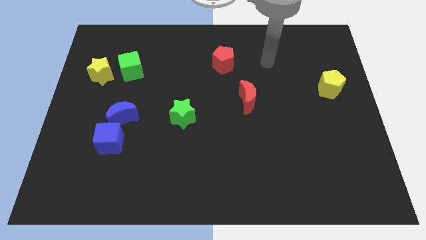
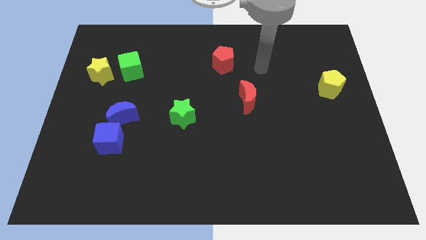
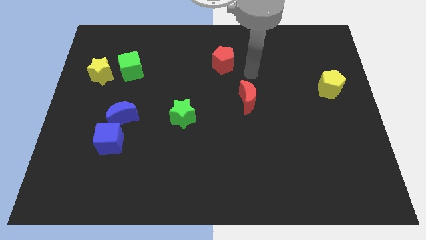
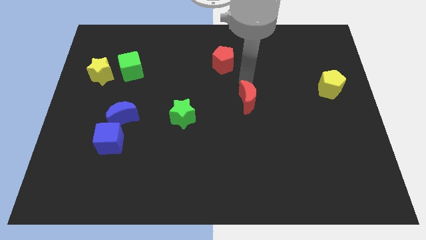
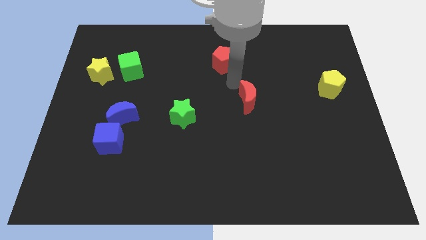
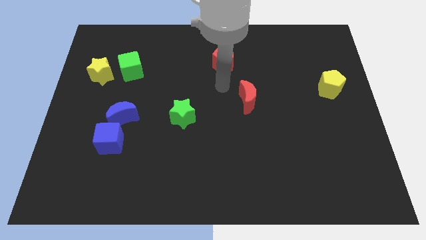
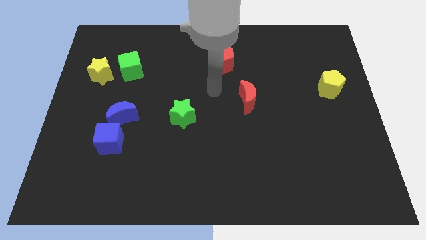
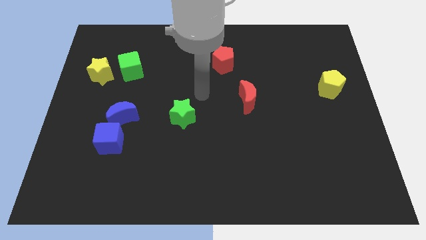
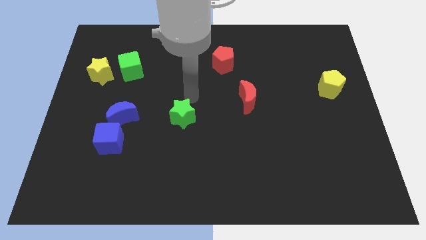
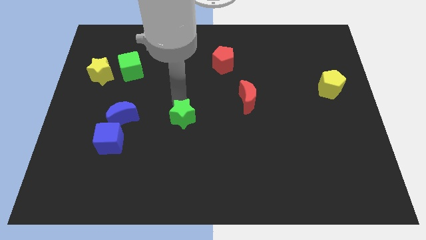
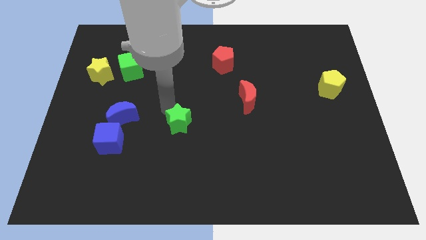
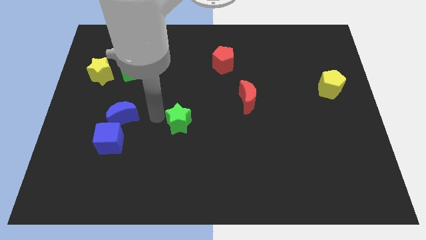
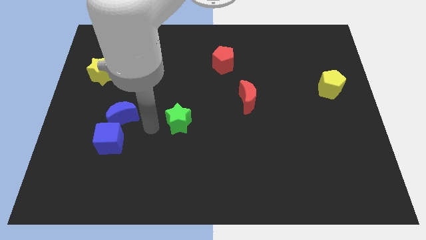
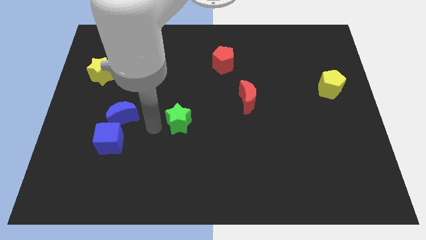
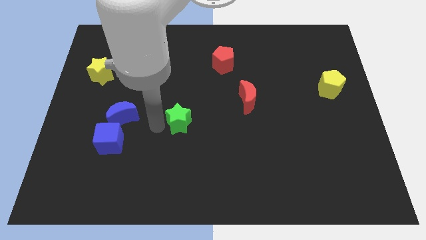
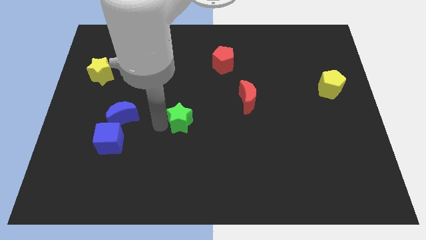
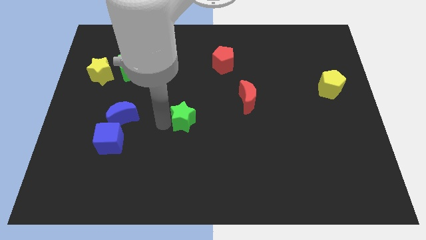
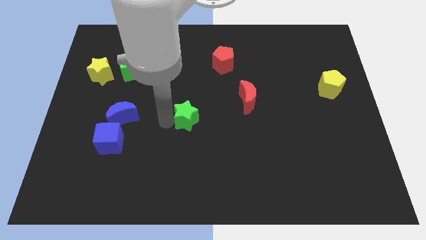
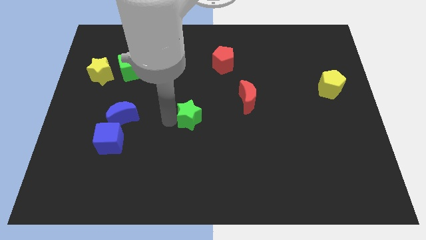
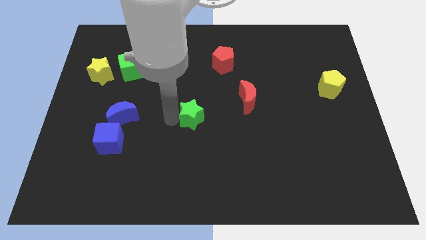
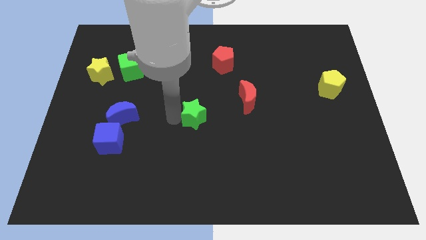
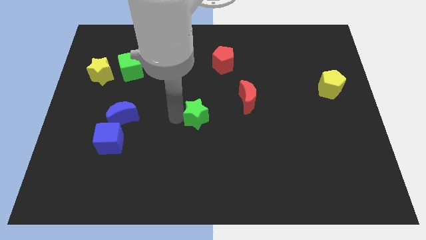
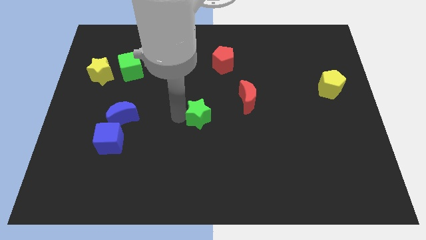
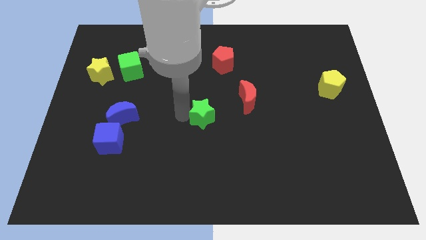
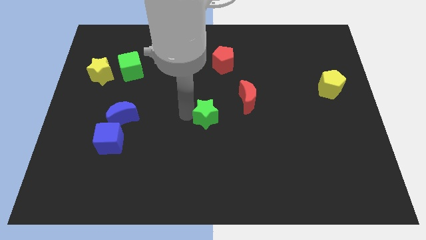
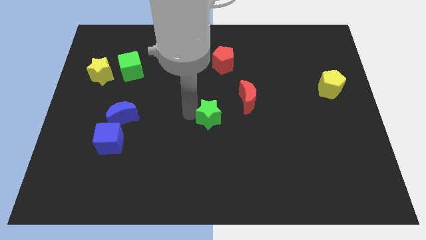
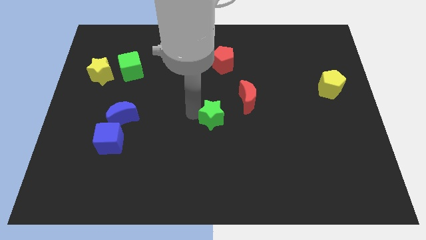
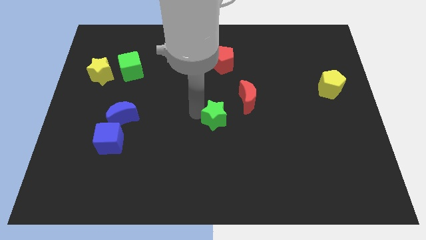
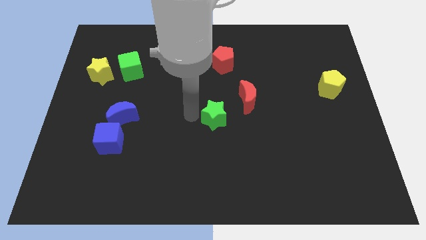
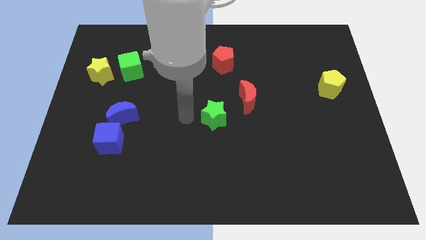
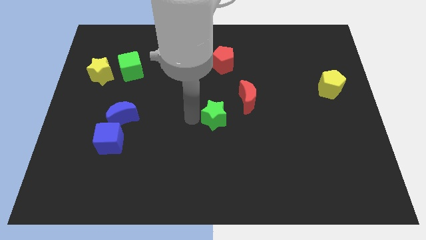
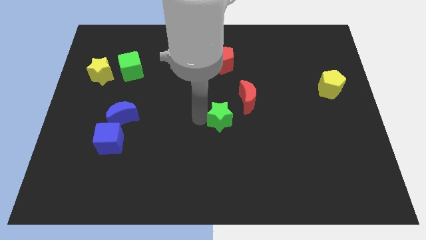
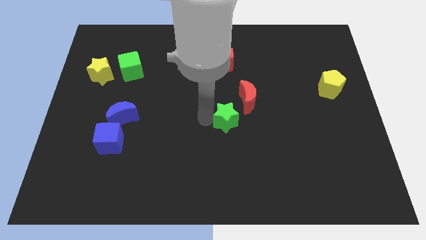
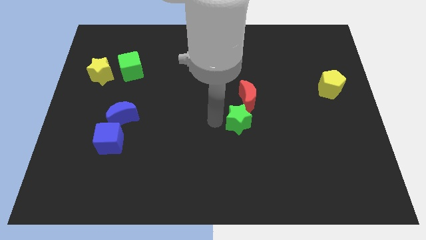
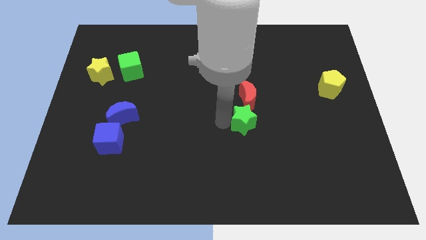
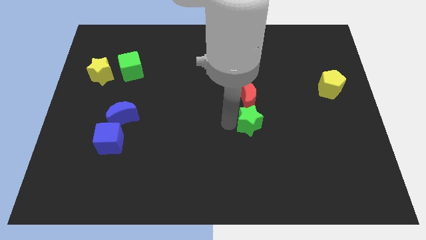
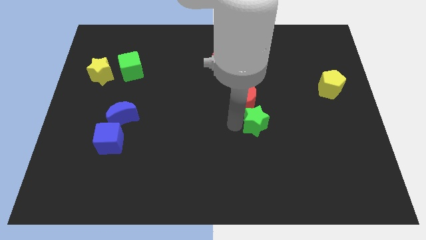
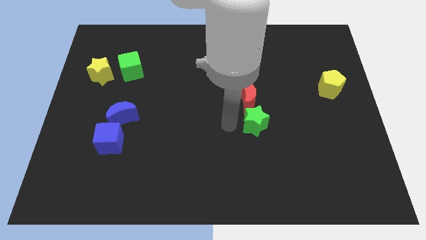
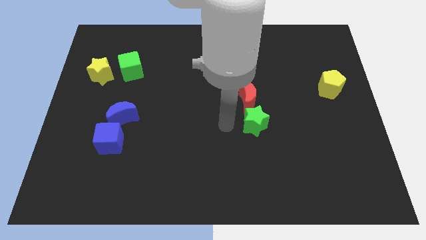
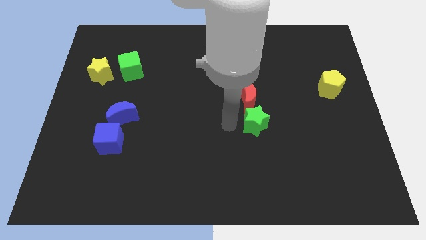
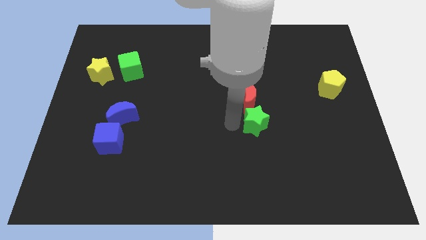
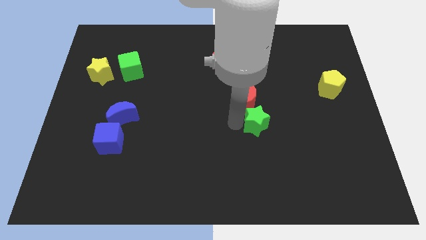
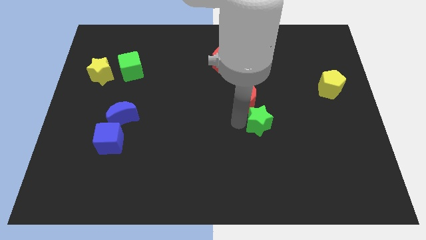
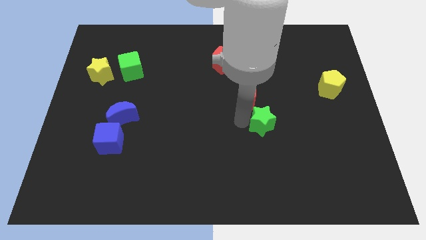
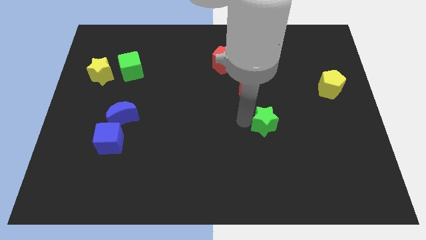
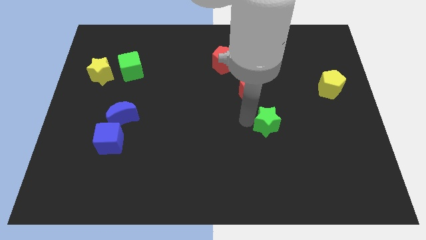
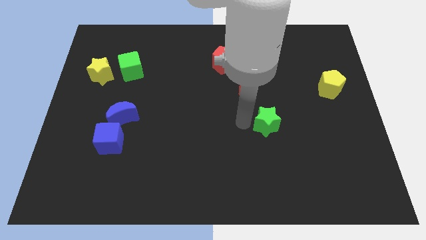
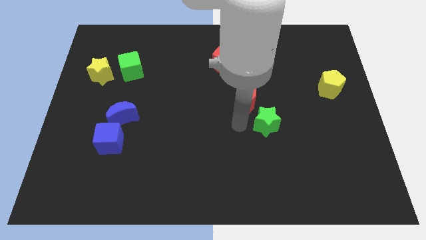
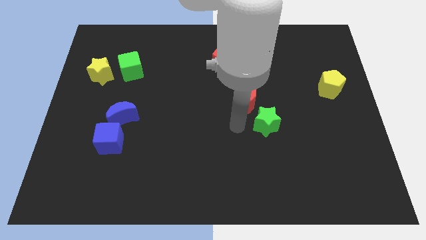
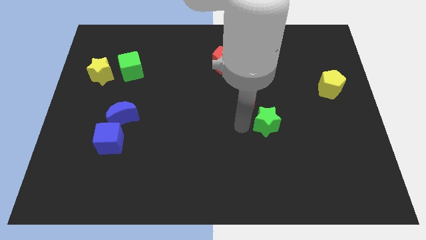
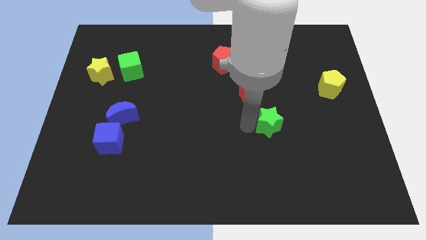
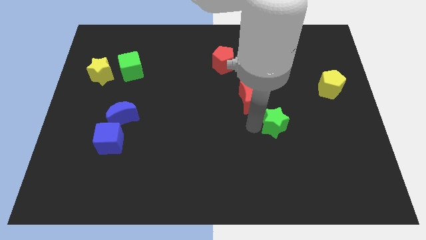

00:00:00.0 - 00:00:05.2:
push the green star to the right

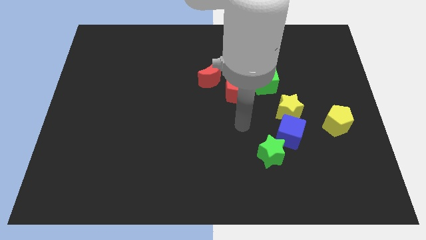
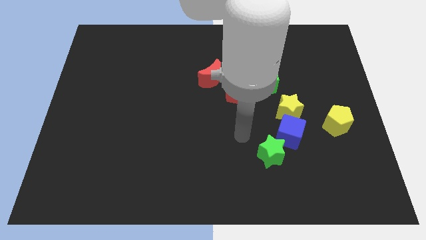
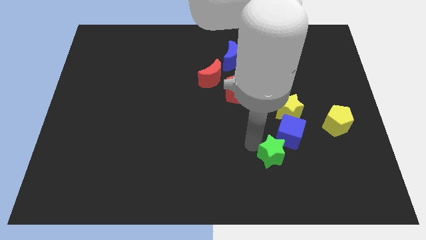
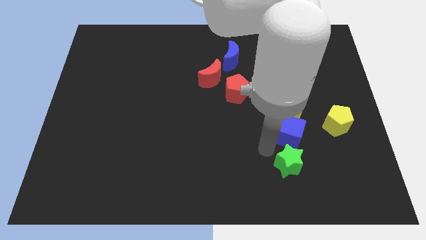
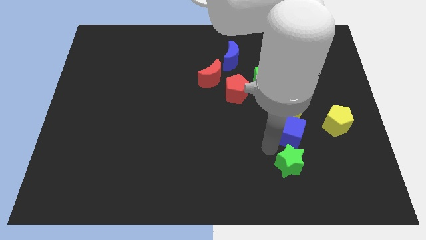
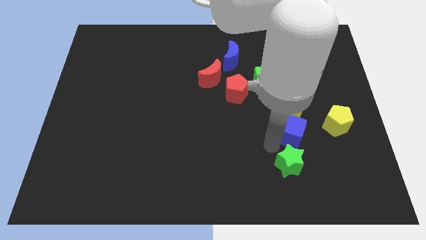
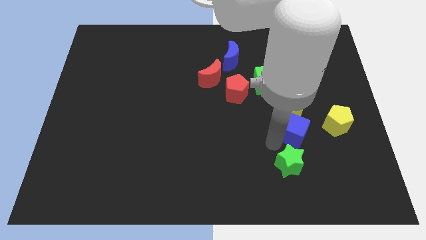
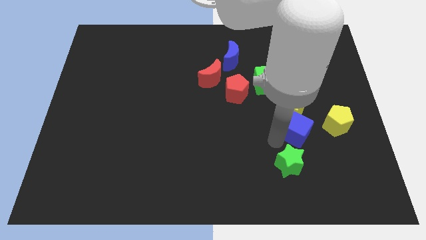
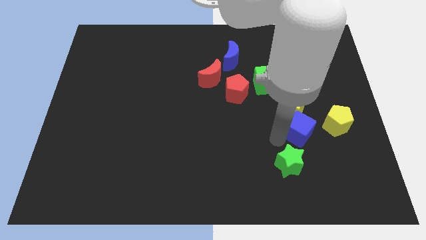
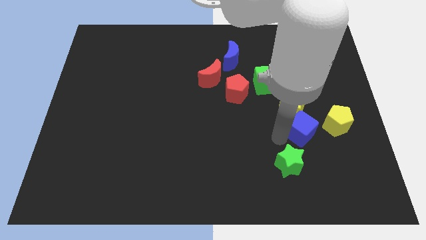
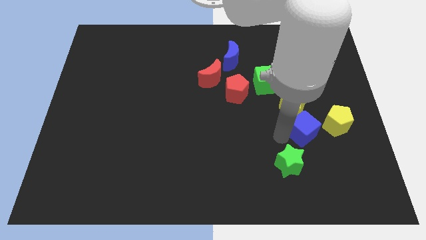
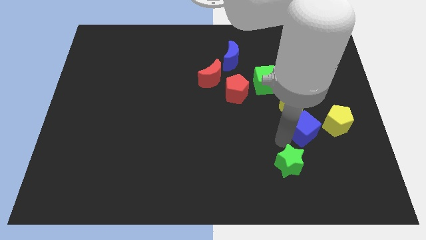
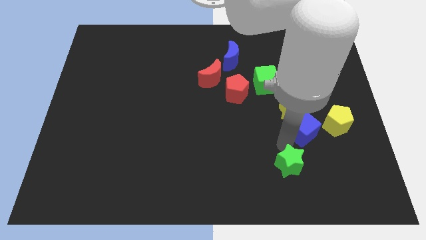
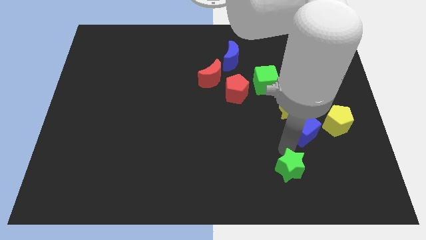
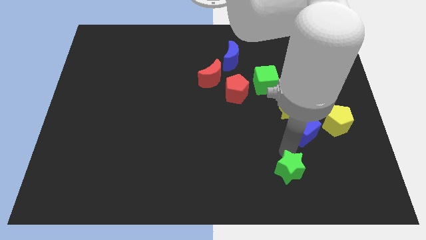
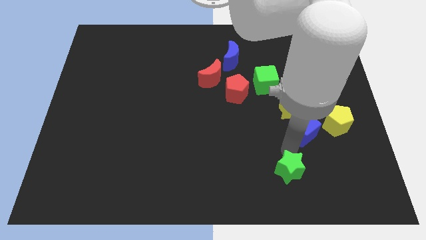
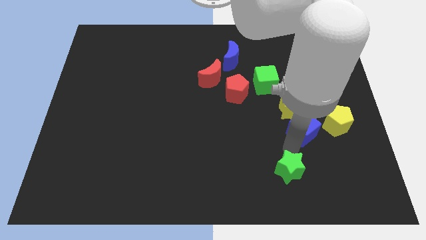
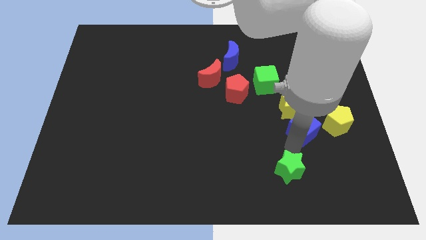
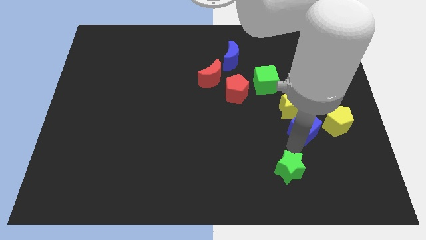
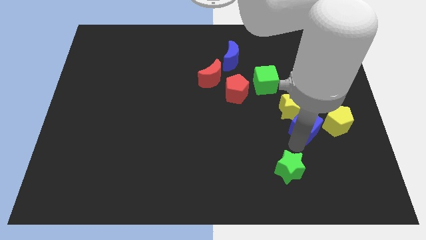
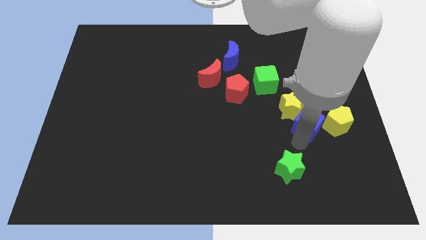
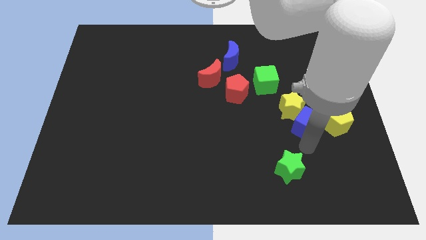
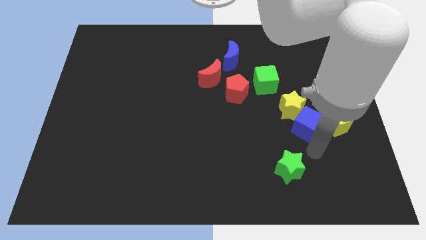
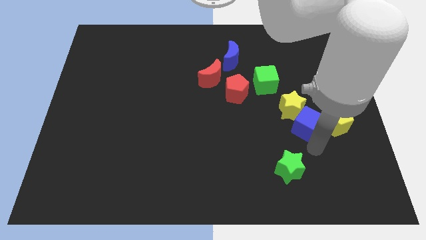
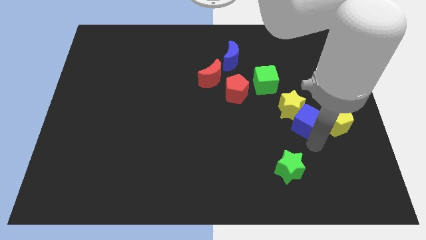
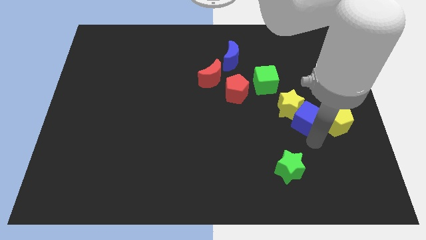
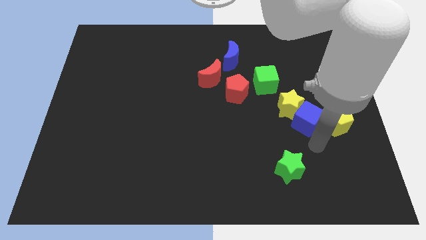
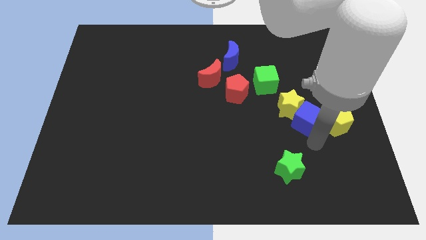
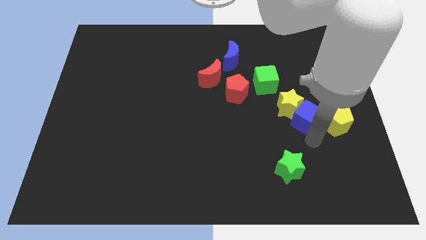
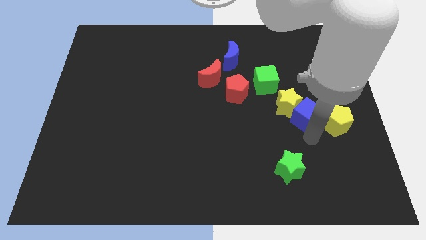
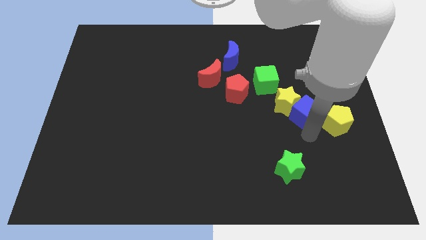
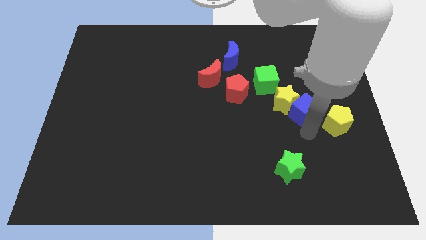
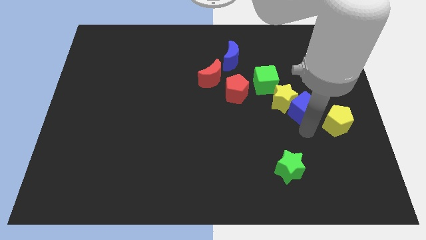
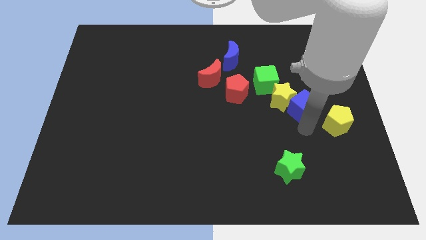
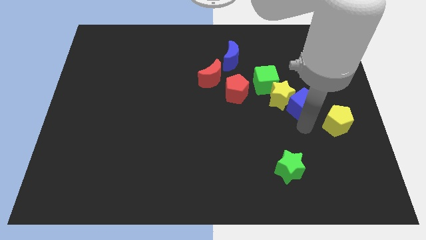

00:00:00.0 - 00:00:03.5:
slide the blue cube somewhat up
